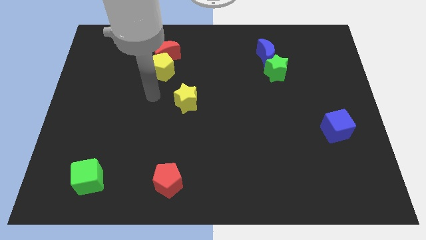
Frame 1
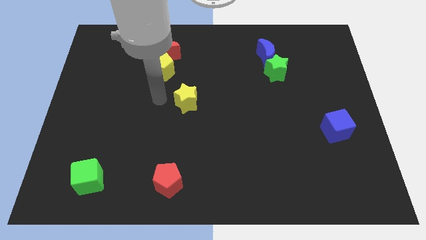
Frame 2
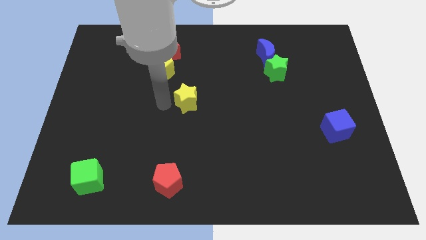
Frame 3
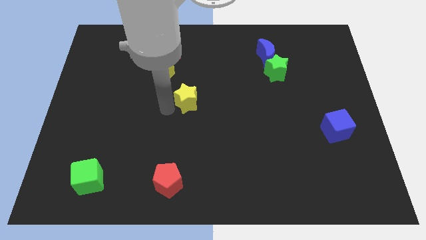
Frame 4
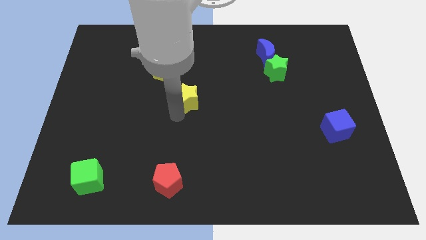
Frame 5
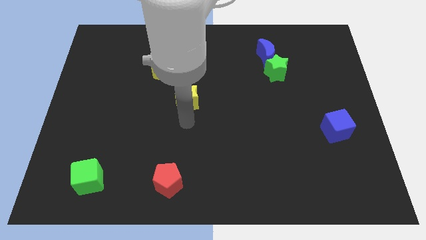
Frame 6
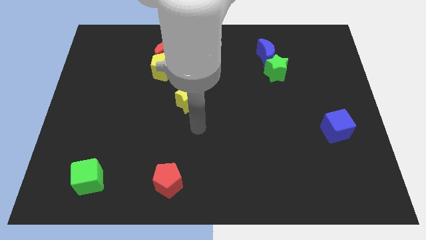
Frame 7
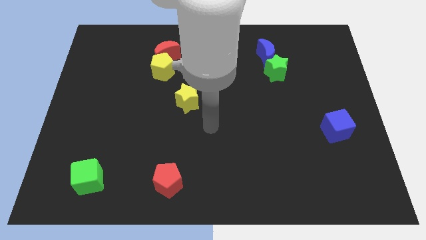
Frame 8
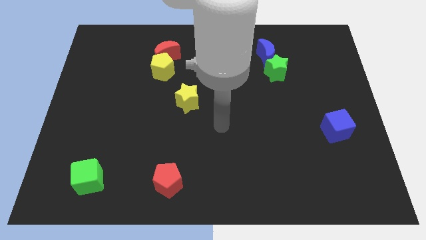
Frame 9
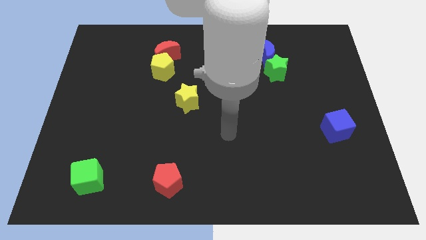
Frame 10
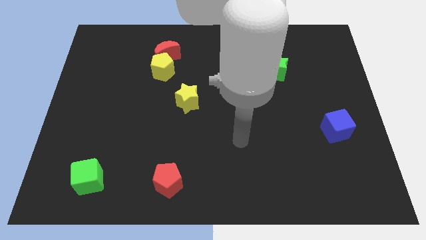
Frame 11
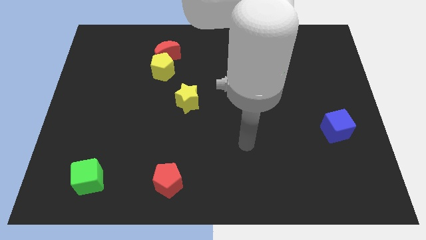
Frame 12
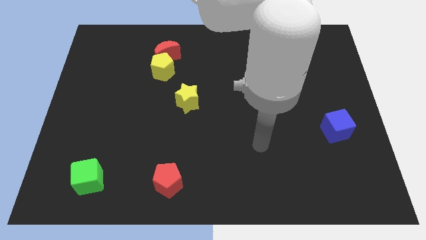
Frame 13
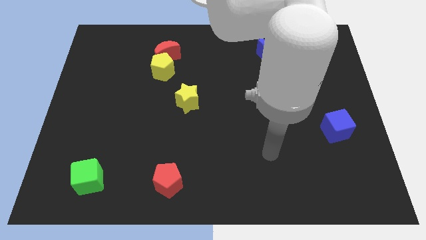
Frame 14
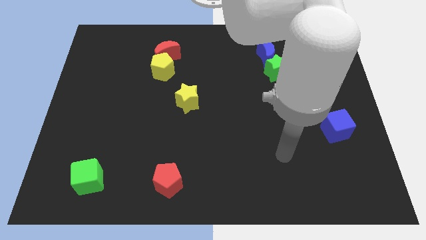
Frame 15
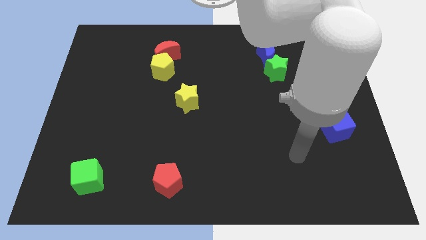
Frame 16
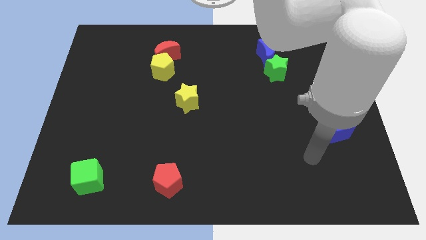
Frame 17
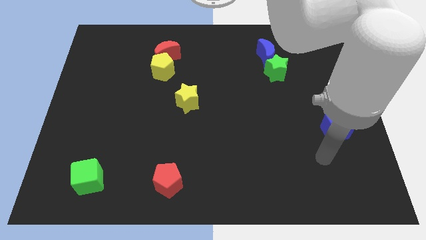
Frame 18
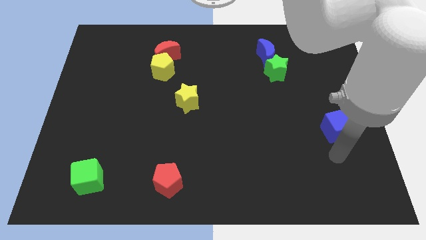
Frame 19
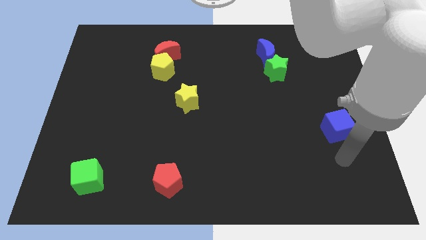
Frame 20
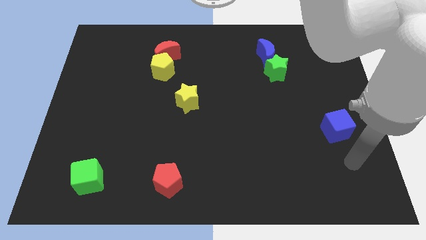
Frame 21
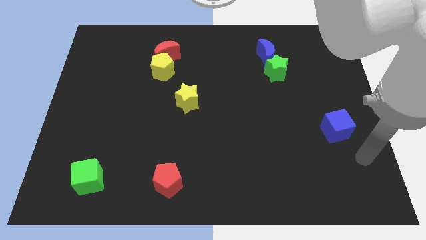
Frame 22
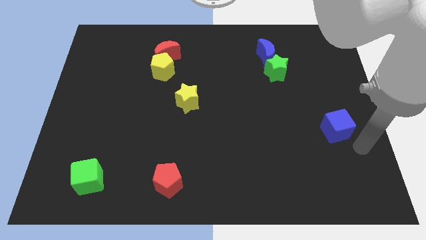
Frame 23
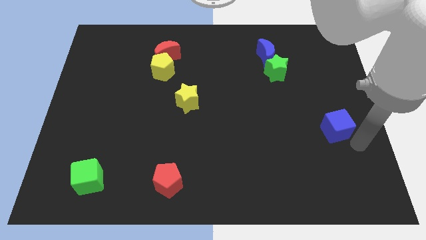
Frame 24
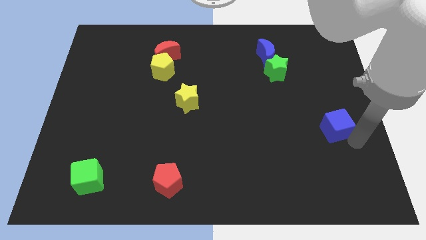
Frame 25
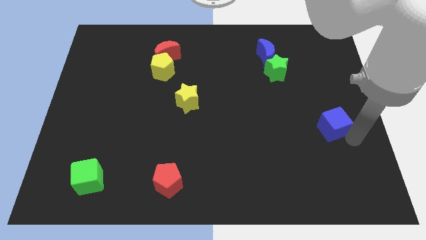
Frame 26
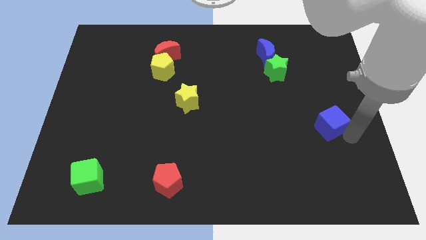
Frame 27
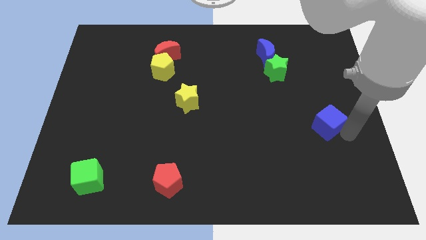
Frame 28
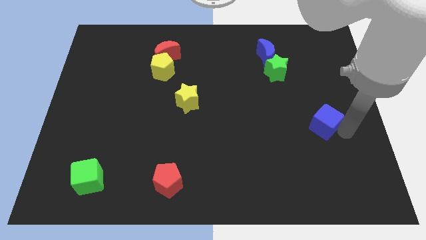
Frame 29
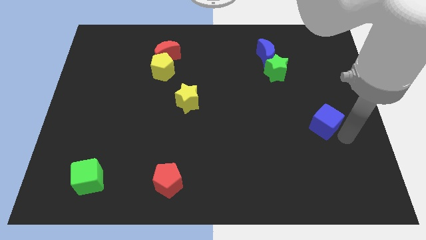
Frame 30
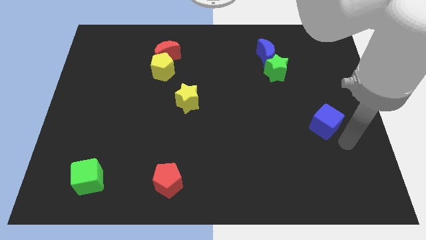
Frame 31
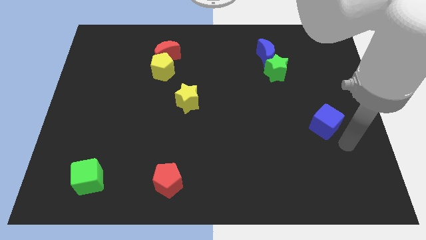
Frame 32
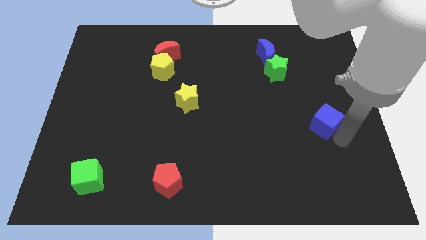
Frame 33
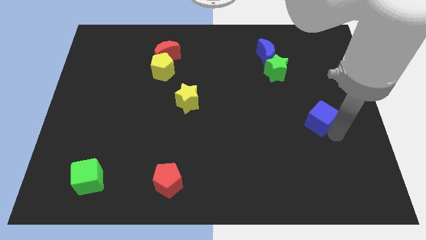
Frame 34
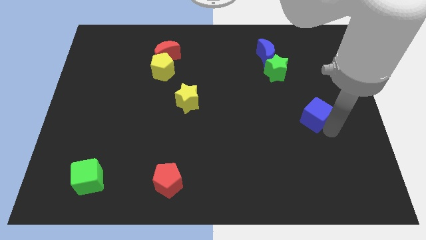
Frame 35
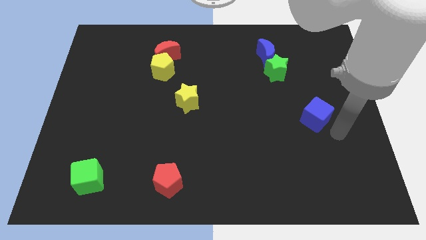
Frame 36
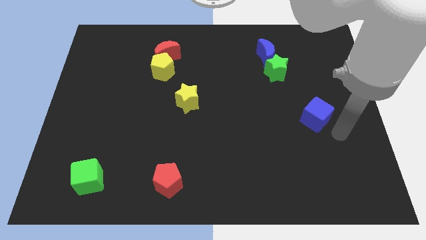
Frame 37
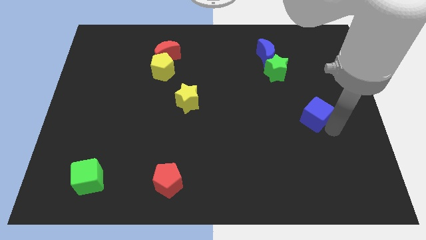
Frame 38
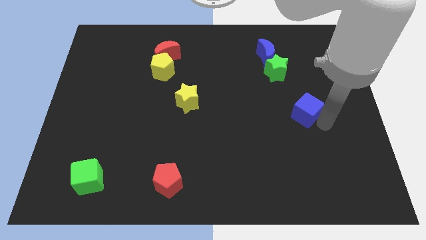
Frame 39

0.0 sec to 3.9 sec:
move the blue cube diagonally upwards and to the left somewhat

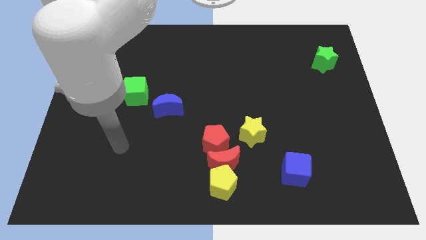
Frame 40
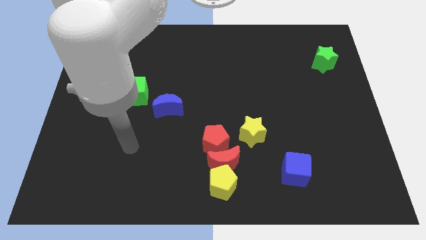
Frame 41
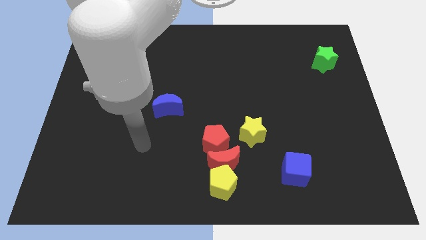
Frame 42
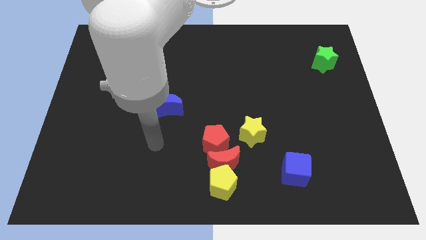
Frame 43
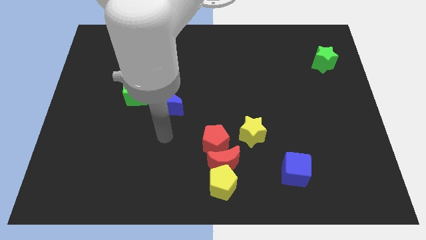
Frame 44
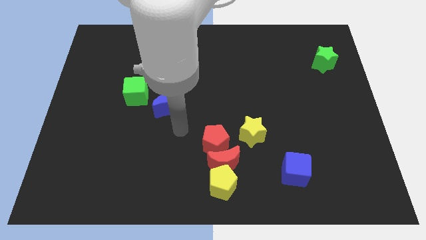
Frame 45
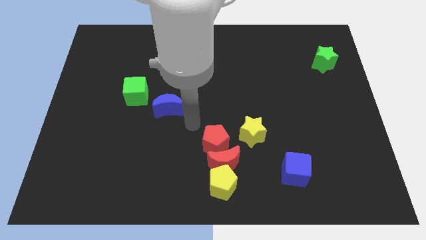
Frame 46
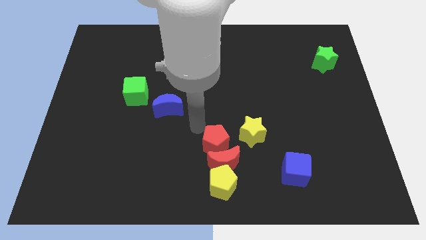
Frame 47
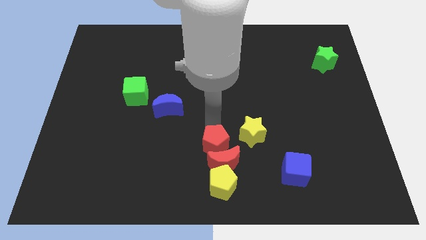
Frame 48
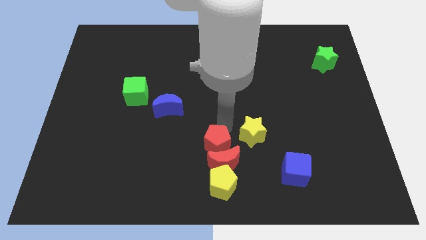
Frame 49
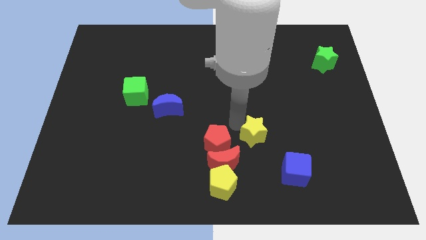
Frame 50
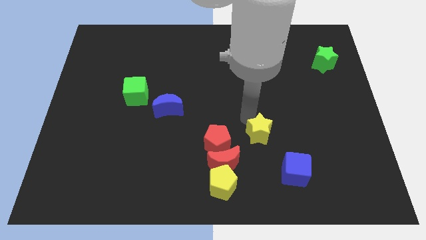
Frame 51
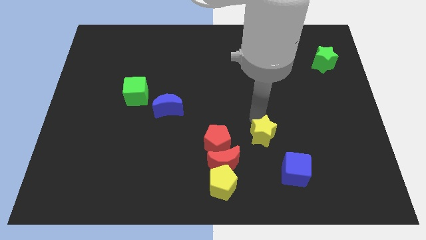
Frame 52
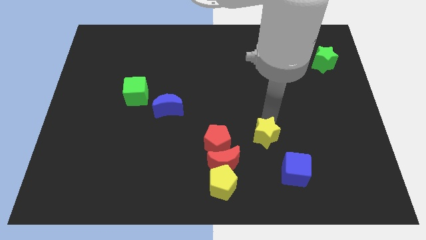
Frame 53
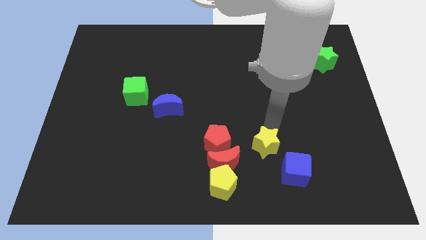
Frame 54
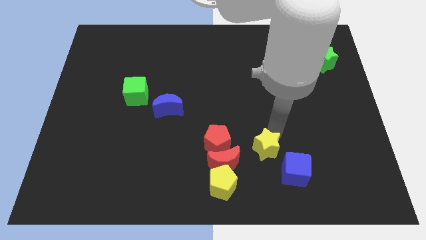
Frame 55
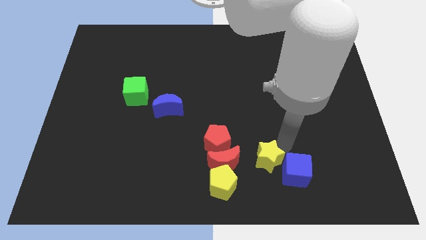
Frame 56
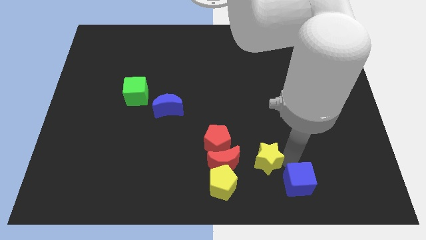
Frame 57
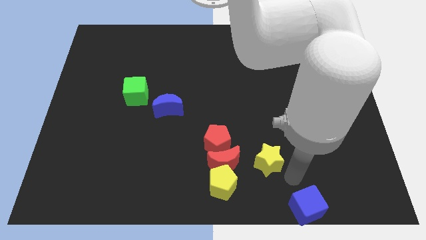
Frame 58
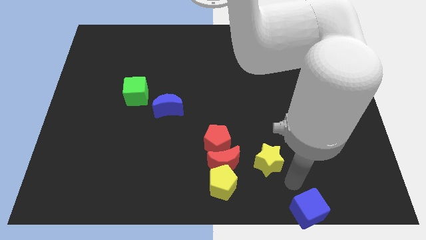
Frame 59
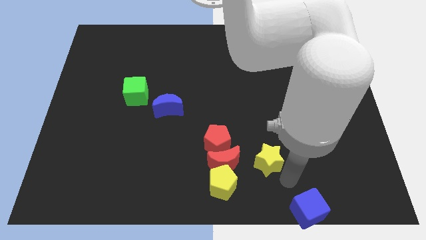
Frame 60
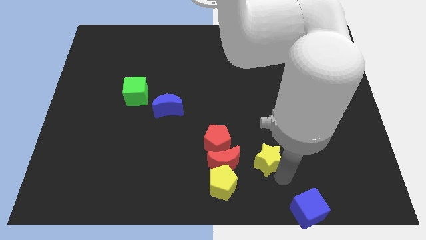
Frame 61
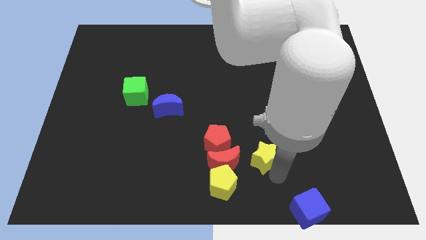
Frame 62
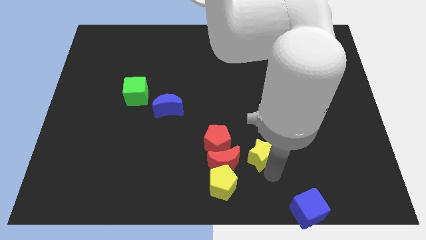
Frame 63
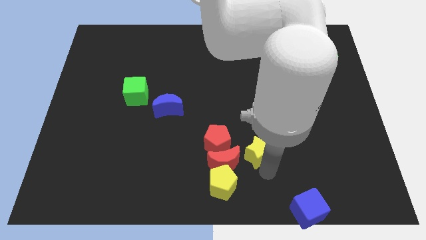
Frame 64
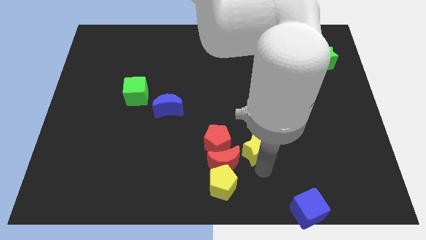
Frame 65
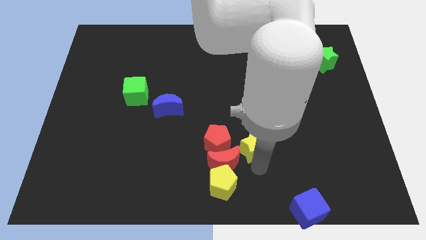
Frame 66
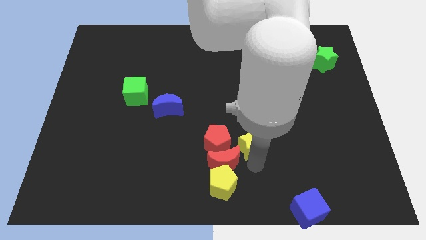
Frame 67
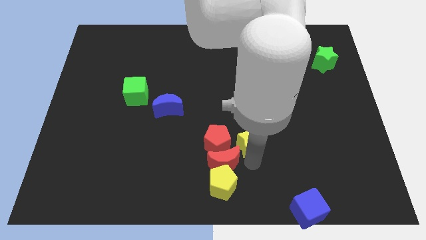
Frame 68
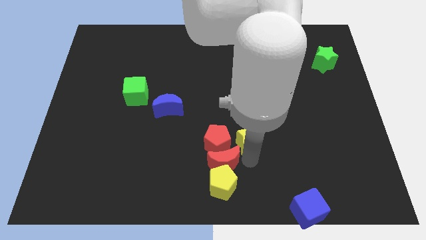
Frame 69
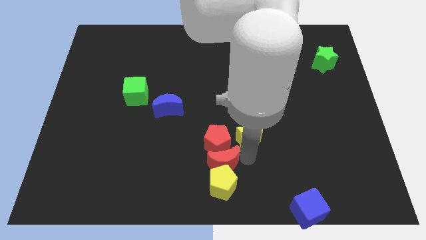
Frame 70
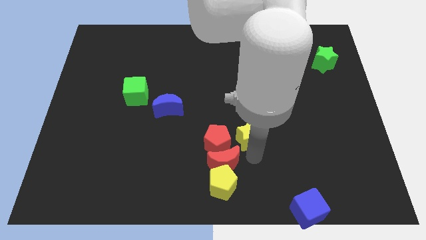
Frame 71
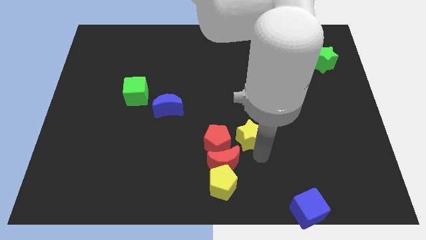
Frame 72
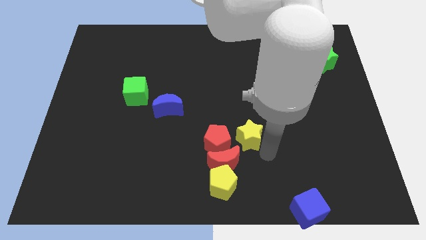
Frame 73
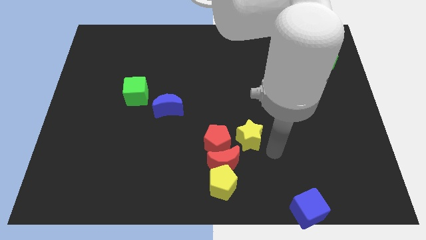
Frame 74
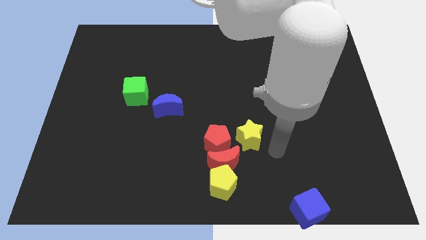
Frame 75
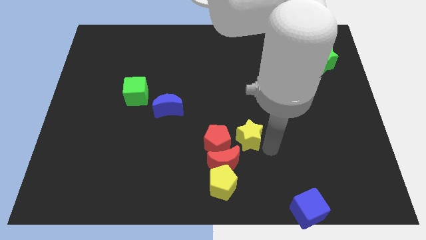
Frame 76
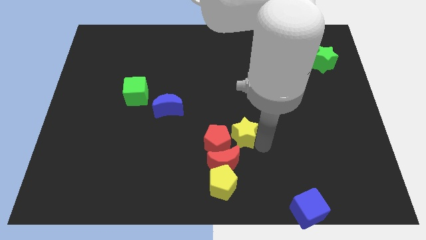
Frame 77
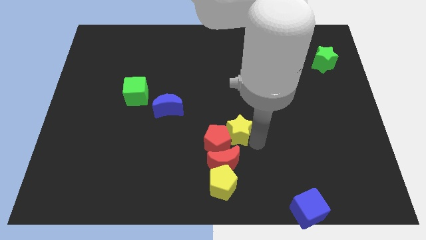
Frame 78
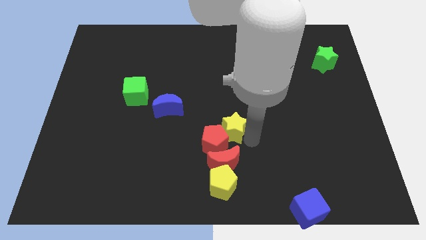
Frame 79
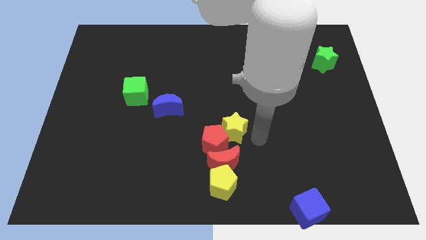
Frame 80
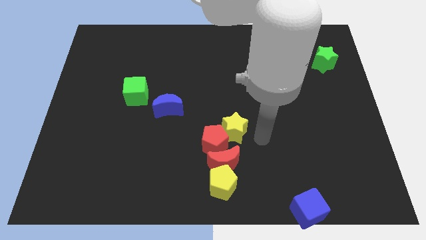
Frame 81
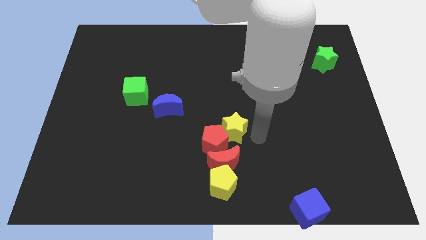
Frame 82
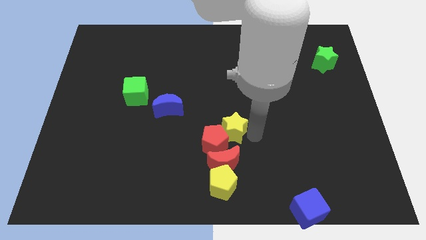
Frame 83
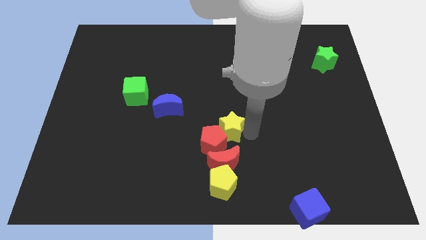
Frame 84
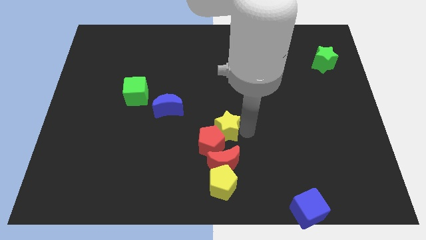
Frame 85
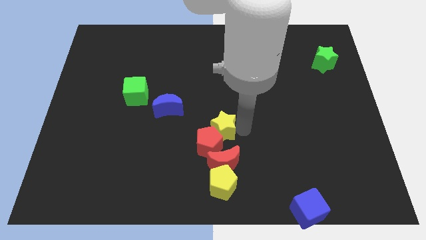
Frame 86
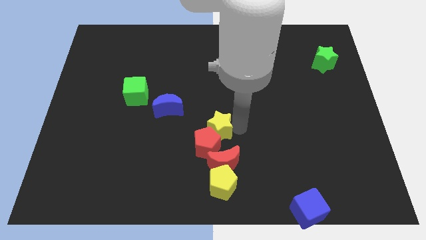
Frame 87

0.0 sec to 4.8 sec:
move the yellow star left somewhat
